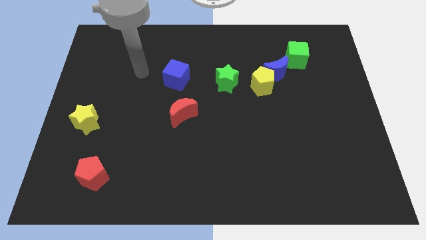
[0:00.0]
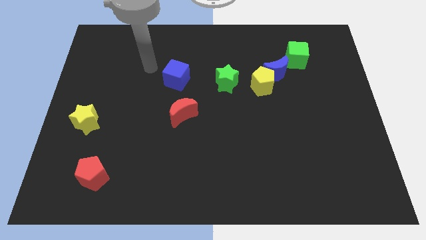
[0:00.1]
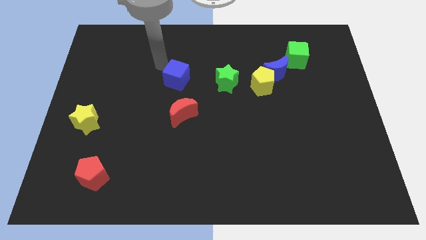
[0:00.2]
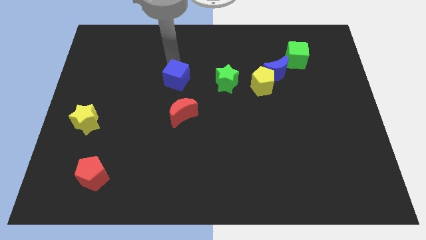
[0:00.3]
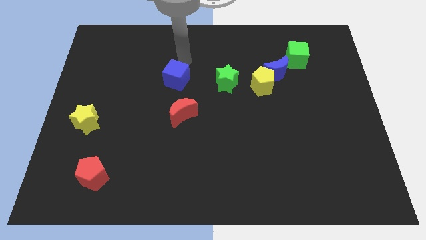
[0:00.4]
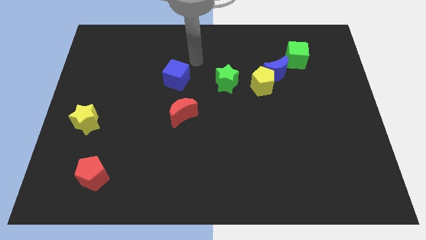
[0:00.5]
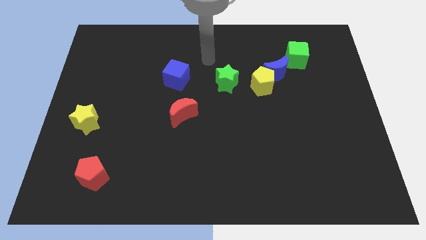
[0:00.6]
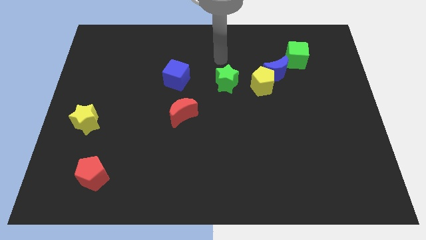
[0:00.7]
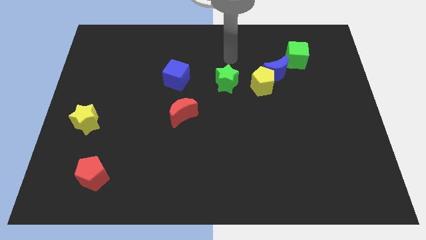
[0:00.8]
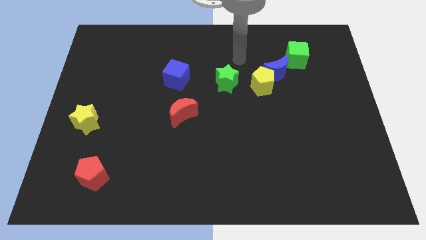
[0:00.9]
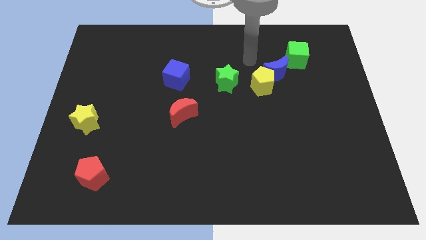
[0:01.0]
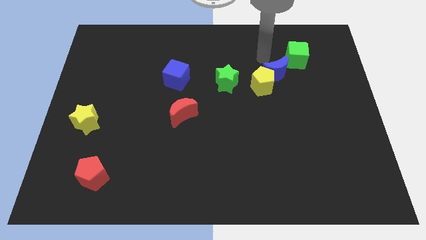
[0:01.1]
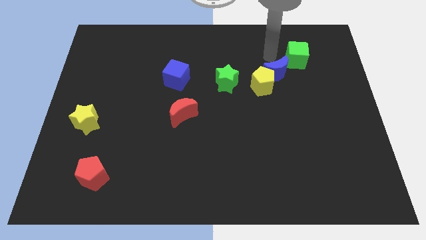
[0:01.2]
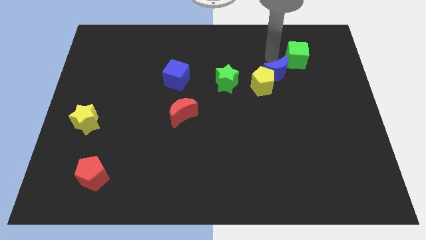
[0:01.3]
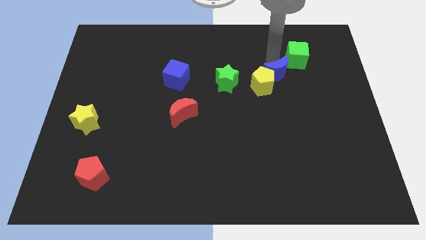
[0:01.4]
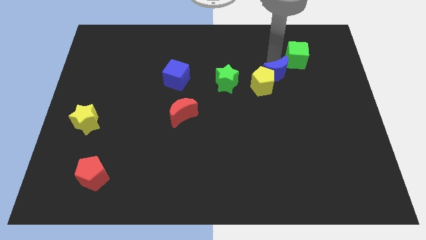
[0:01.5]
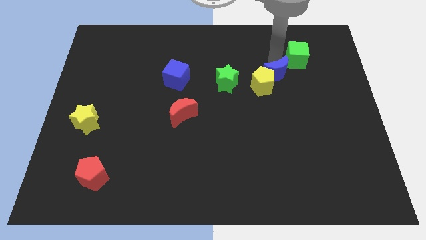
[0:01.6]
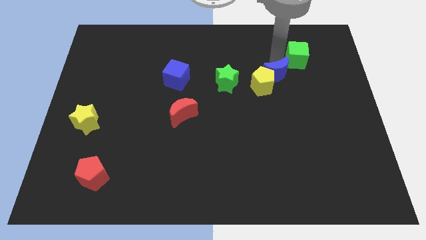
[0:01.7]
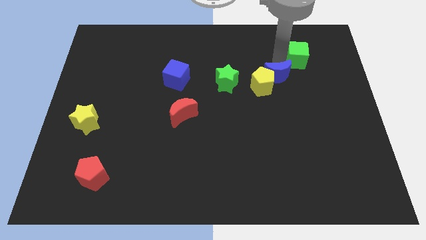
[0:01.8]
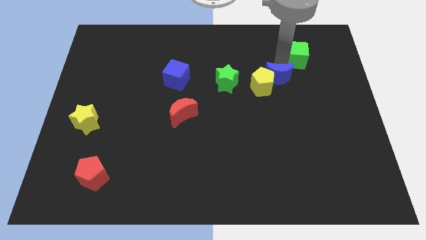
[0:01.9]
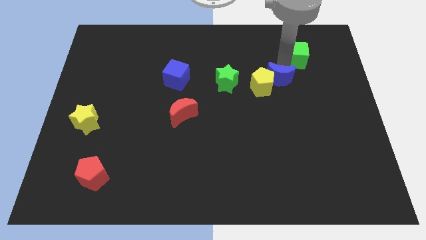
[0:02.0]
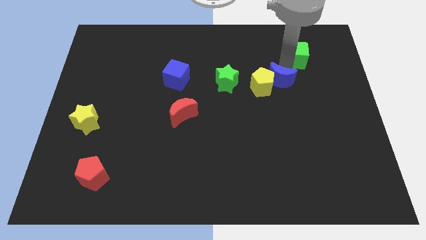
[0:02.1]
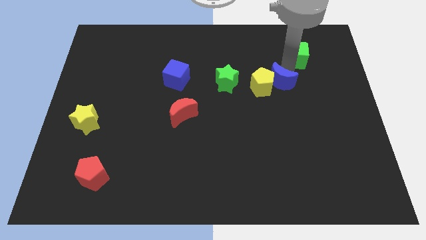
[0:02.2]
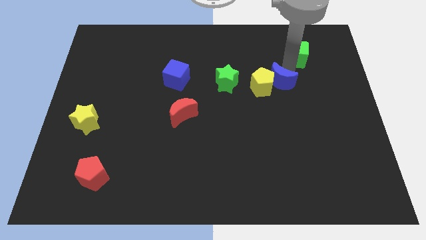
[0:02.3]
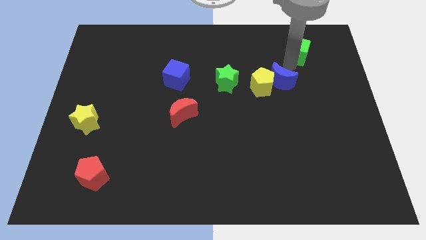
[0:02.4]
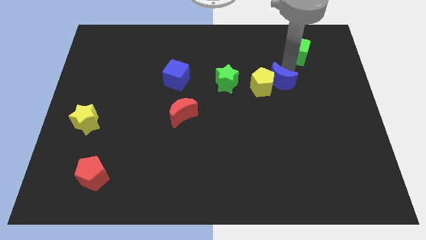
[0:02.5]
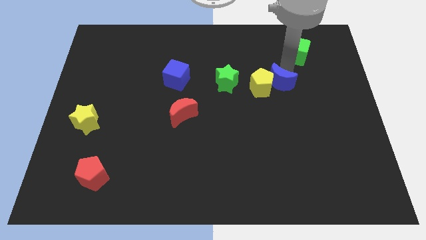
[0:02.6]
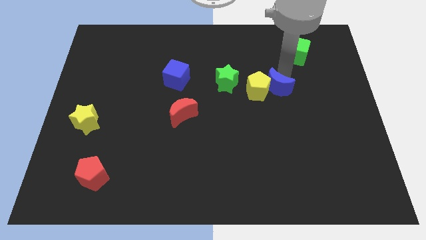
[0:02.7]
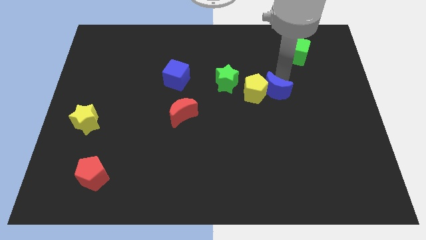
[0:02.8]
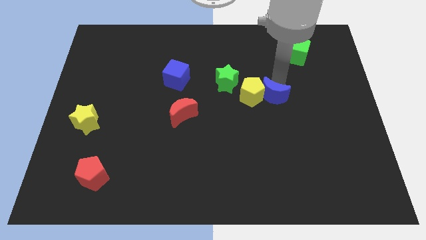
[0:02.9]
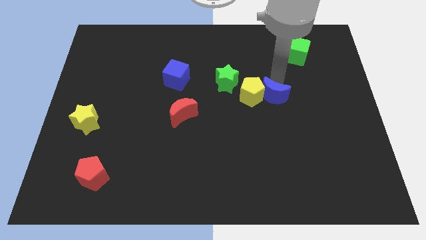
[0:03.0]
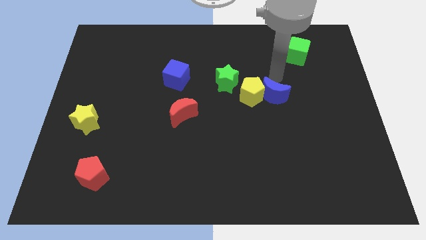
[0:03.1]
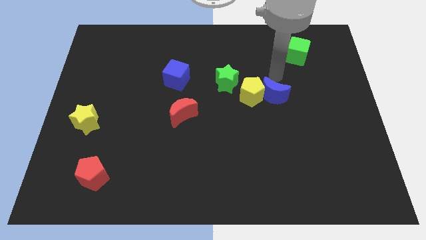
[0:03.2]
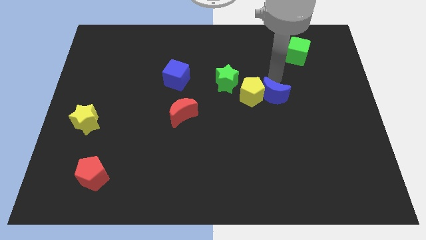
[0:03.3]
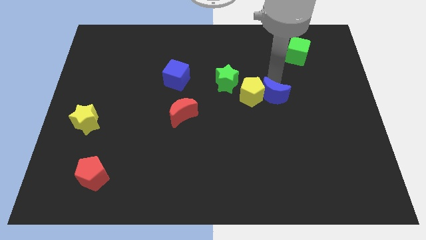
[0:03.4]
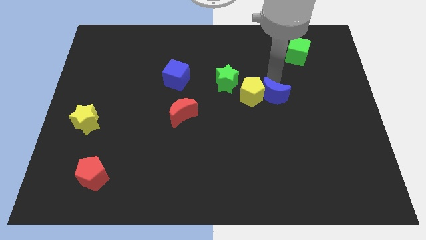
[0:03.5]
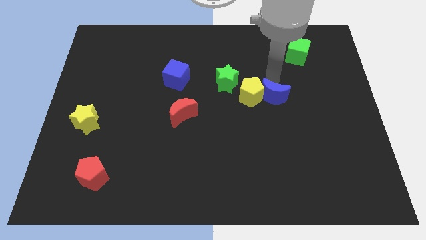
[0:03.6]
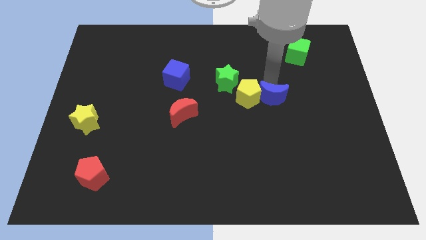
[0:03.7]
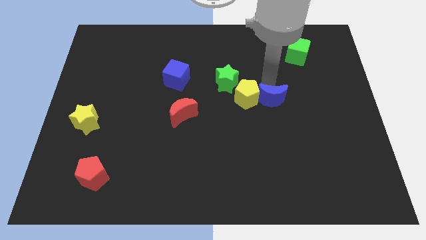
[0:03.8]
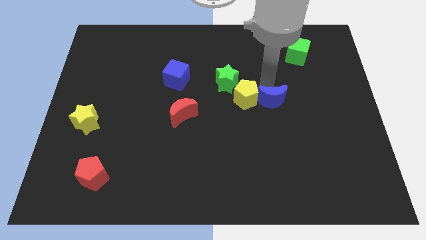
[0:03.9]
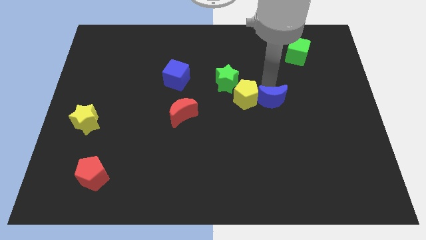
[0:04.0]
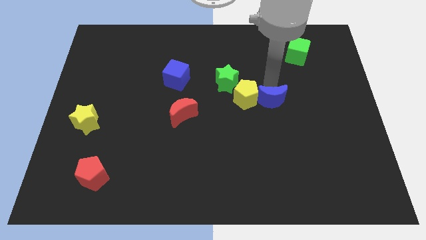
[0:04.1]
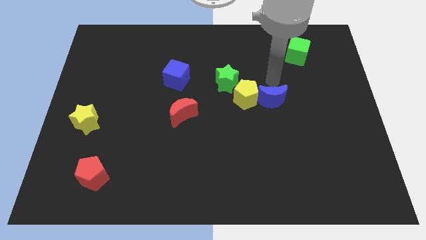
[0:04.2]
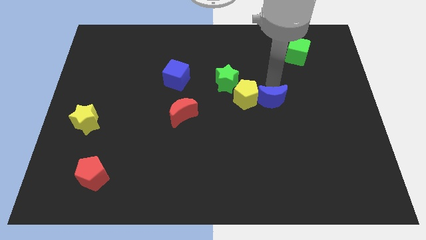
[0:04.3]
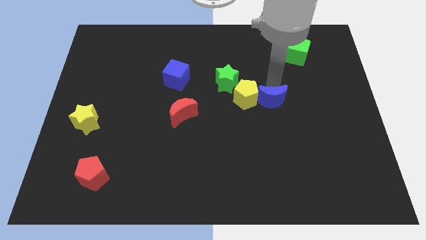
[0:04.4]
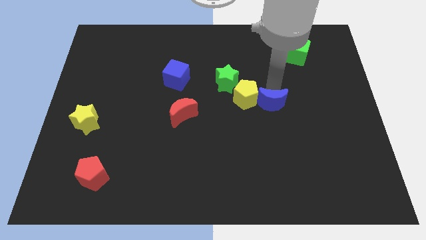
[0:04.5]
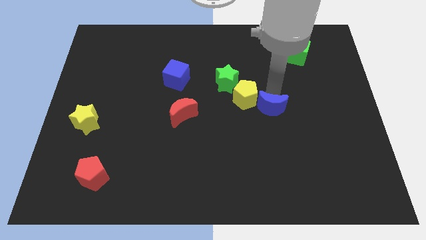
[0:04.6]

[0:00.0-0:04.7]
move the blue moon away from the yellow pentagon and green cube

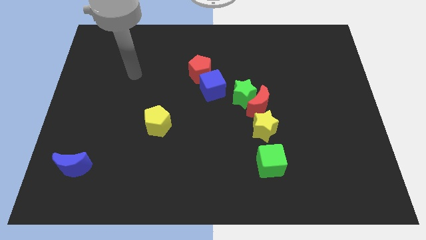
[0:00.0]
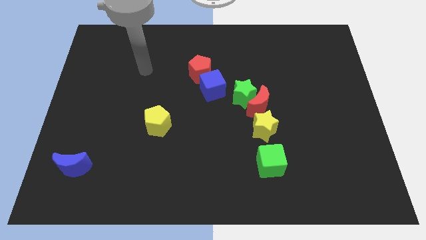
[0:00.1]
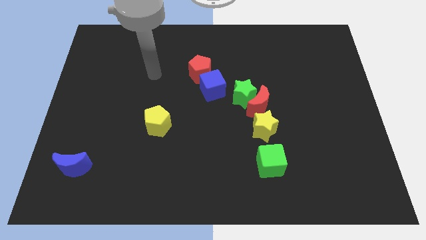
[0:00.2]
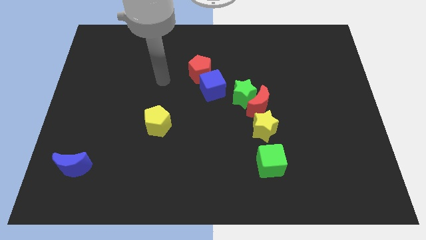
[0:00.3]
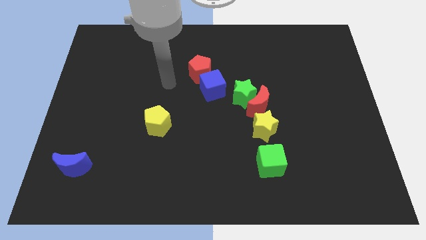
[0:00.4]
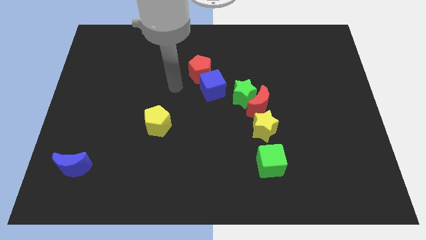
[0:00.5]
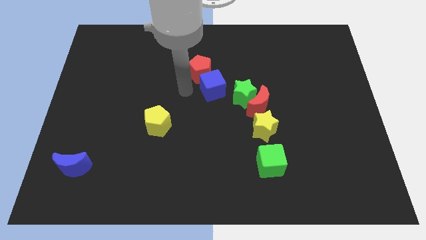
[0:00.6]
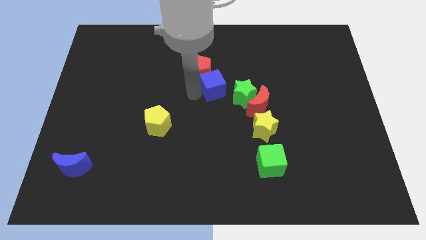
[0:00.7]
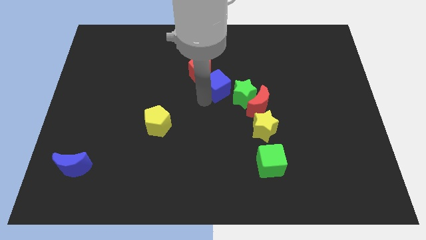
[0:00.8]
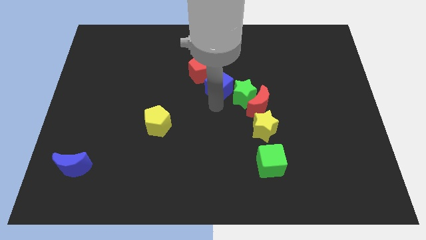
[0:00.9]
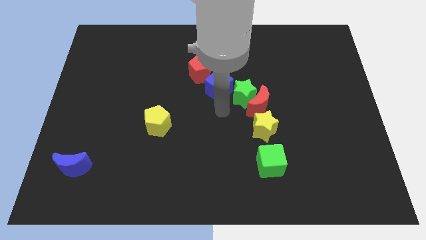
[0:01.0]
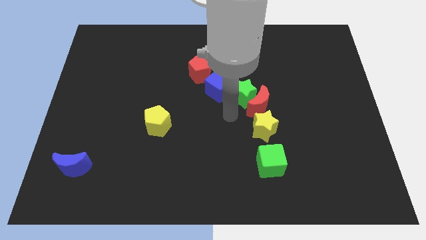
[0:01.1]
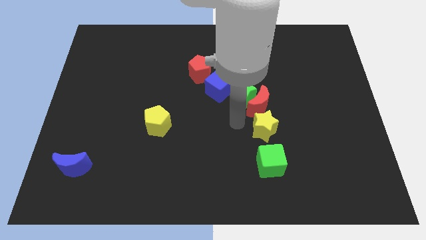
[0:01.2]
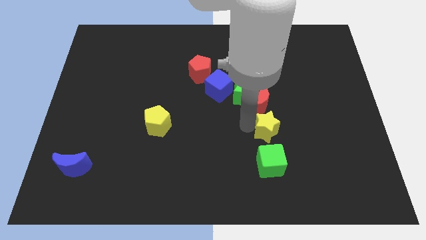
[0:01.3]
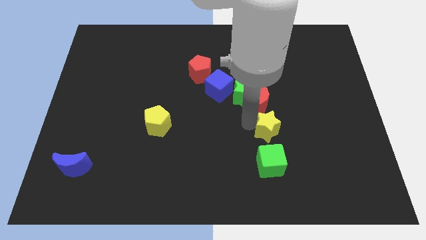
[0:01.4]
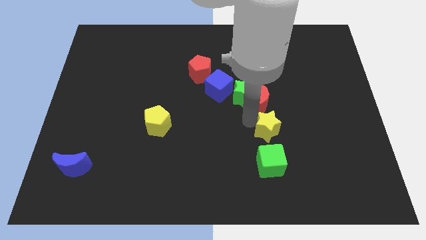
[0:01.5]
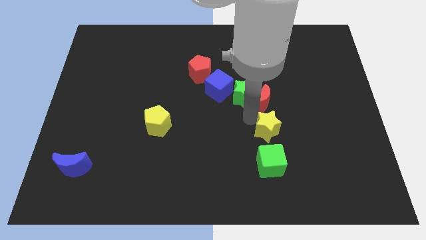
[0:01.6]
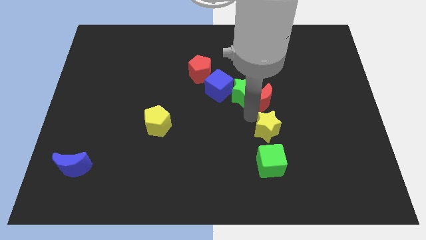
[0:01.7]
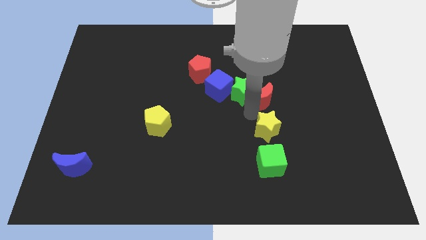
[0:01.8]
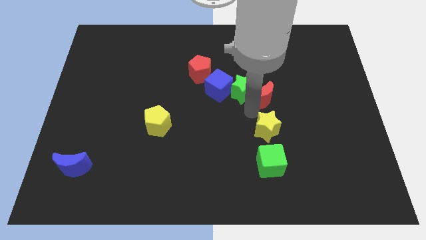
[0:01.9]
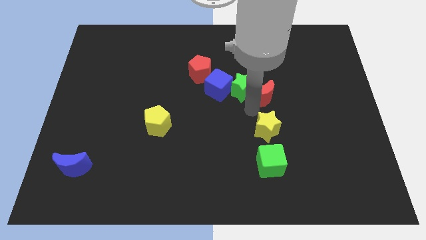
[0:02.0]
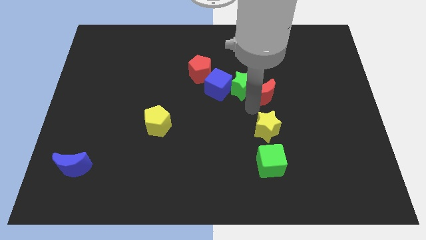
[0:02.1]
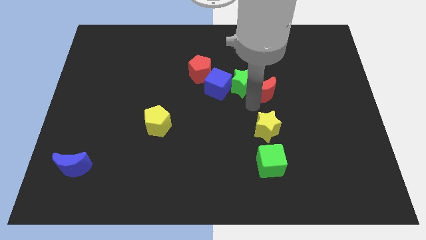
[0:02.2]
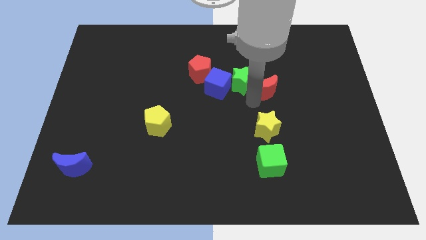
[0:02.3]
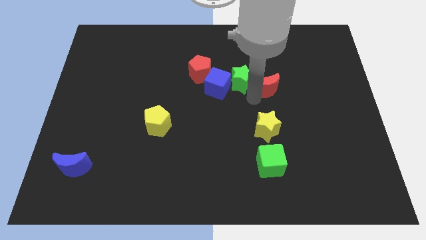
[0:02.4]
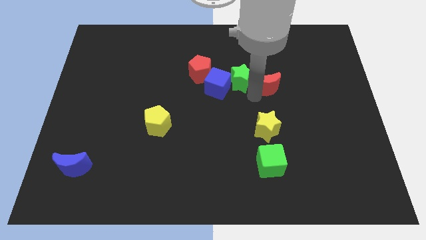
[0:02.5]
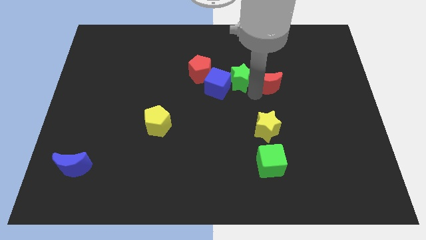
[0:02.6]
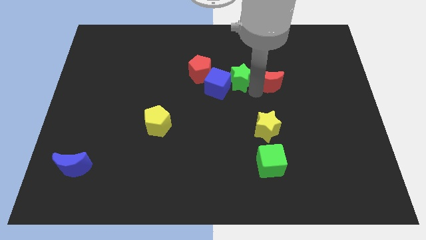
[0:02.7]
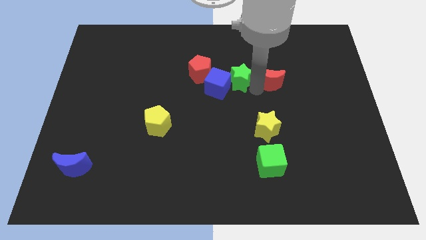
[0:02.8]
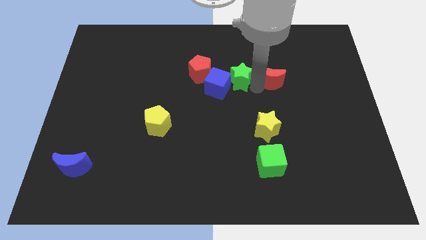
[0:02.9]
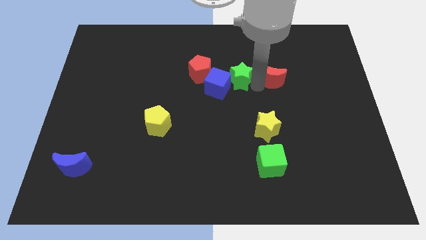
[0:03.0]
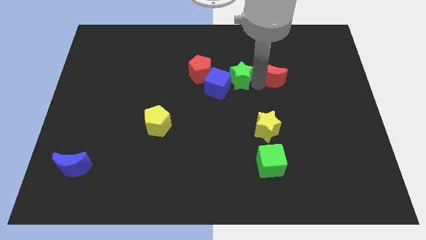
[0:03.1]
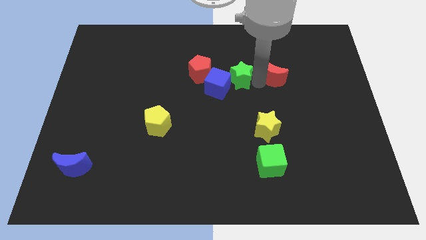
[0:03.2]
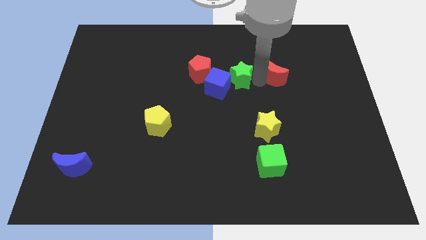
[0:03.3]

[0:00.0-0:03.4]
pull the red moon apart from the green star and yellow star

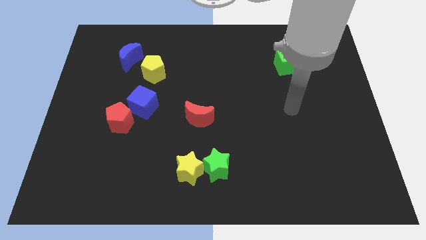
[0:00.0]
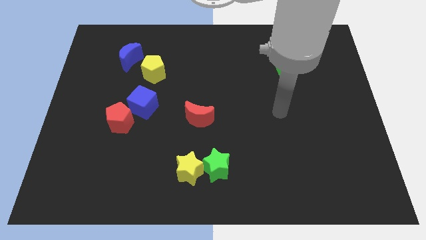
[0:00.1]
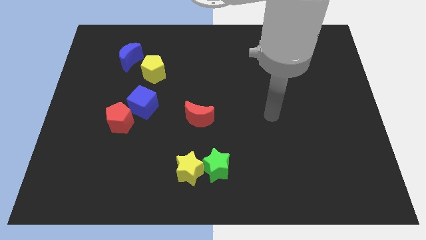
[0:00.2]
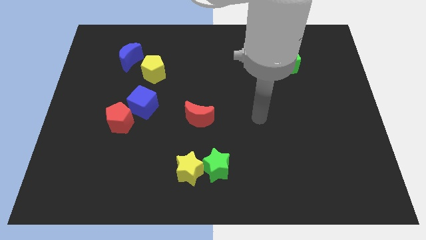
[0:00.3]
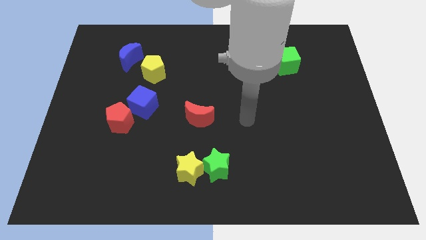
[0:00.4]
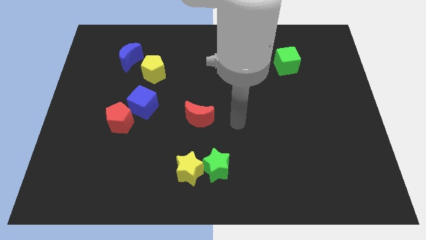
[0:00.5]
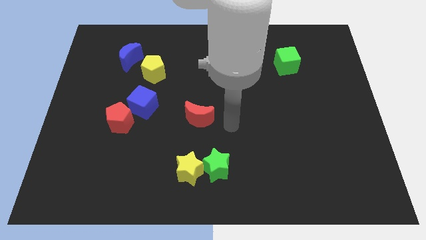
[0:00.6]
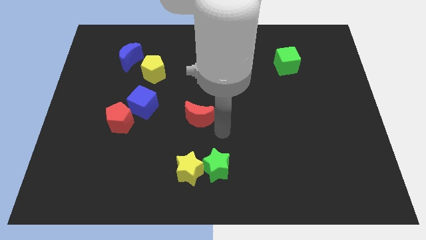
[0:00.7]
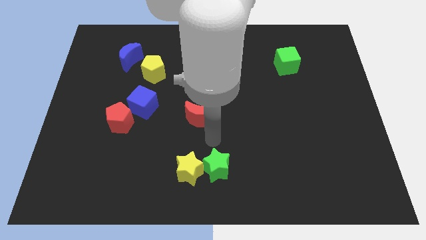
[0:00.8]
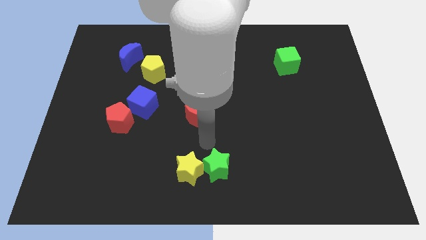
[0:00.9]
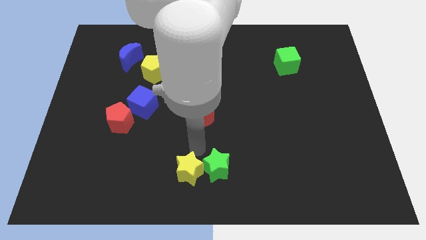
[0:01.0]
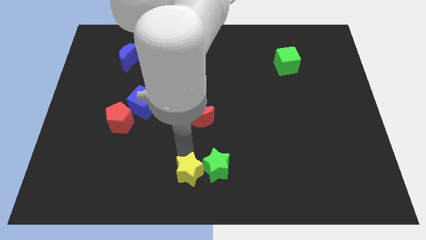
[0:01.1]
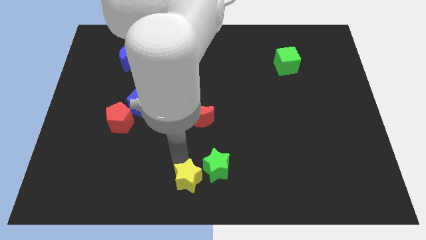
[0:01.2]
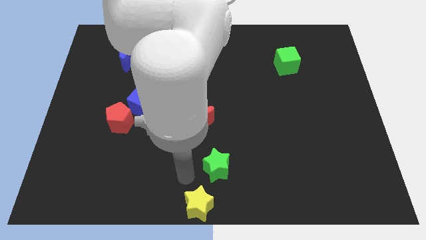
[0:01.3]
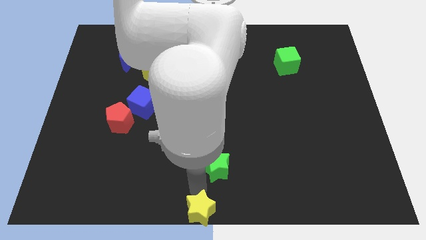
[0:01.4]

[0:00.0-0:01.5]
pull the green star apart from the yellow star
